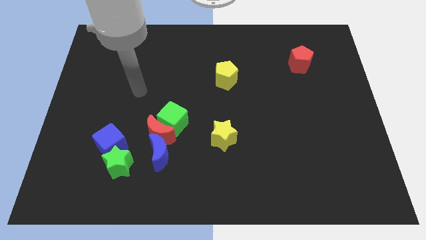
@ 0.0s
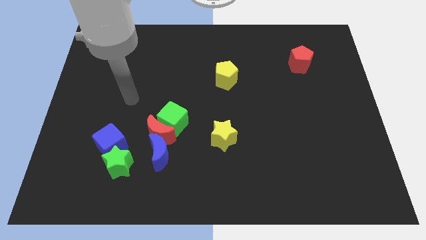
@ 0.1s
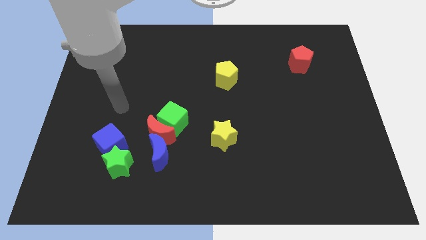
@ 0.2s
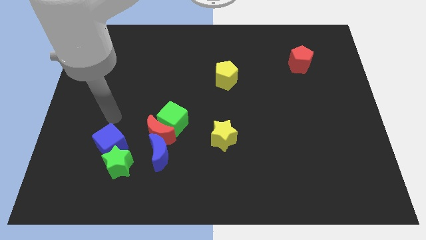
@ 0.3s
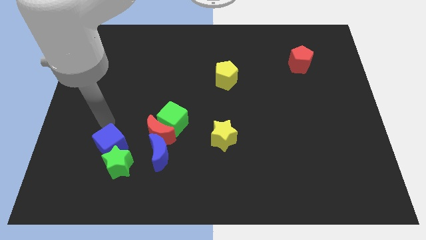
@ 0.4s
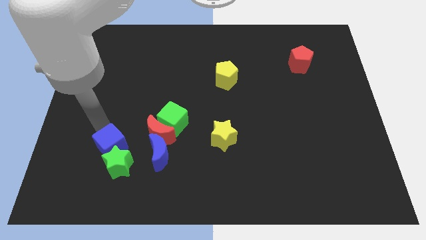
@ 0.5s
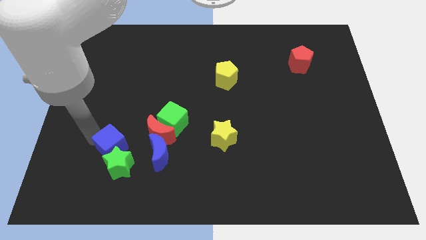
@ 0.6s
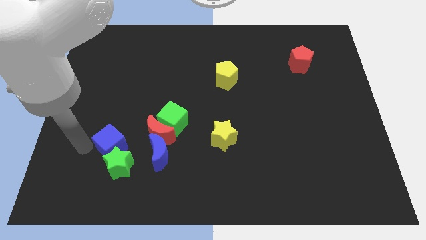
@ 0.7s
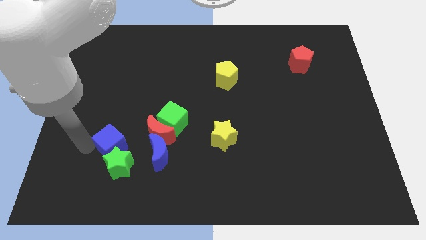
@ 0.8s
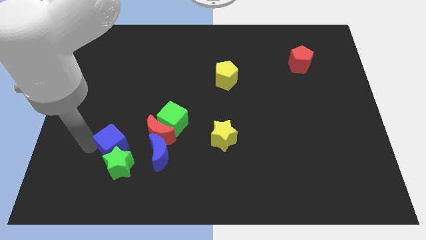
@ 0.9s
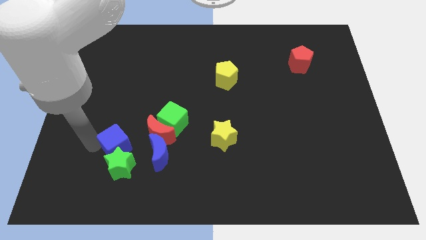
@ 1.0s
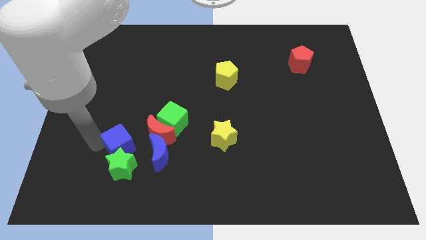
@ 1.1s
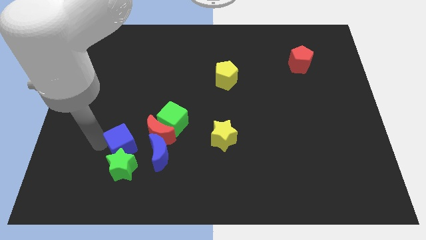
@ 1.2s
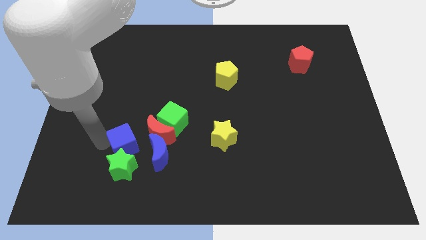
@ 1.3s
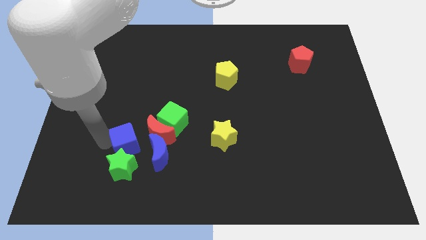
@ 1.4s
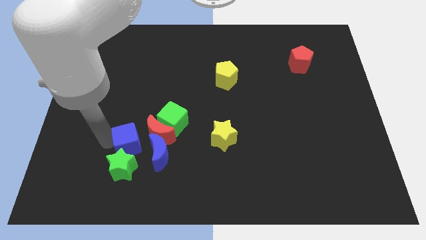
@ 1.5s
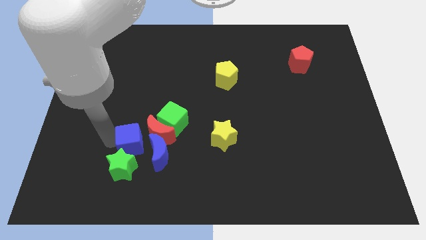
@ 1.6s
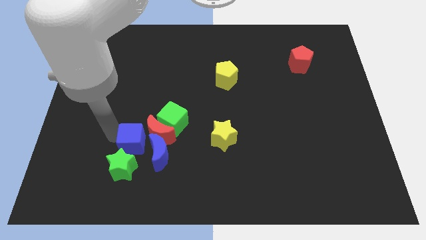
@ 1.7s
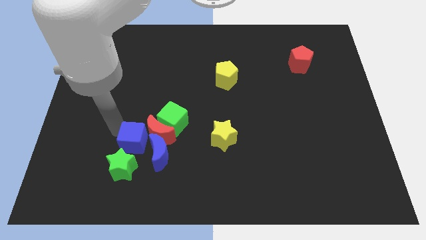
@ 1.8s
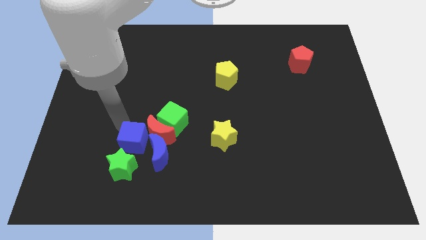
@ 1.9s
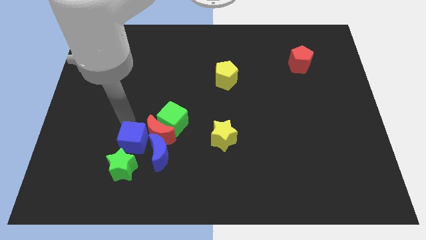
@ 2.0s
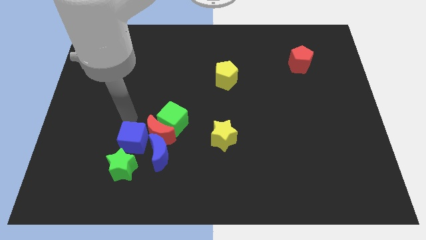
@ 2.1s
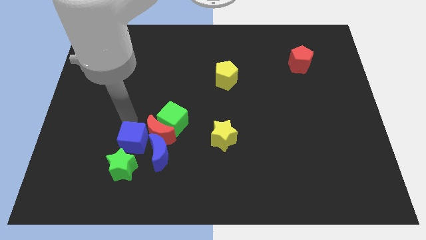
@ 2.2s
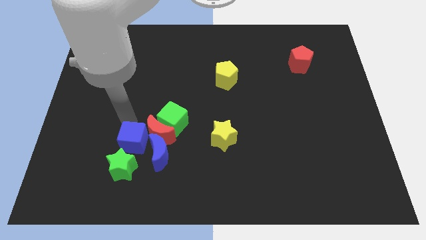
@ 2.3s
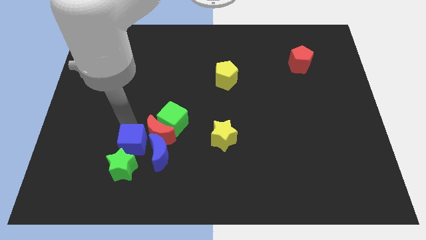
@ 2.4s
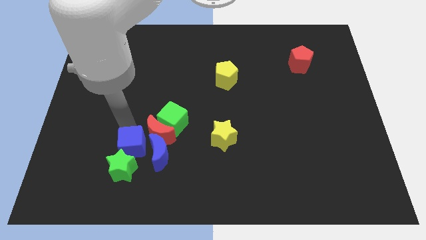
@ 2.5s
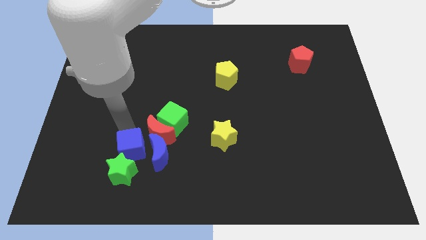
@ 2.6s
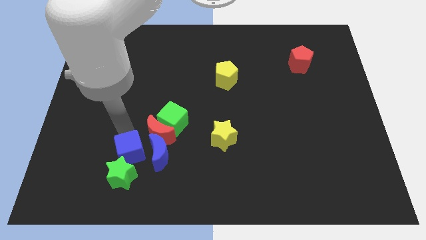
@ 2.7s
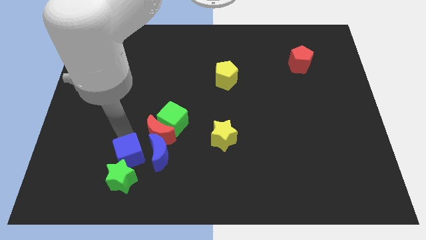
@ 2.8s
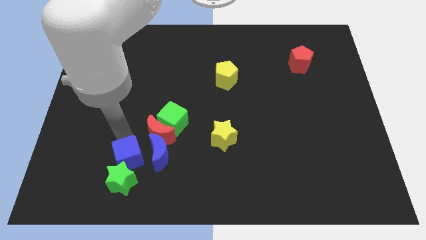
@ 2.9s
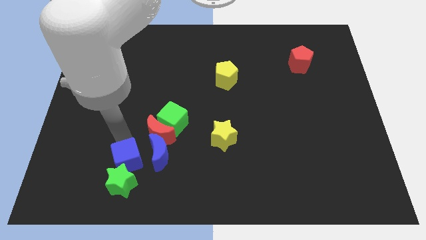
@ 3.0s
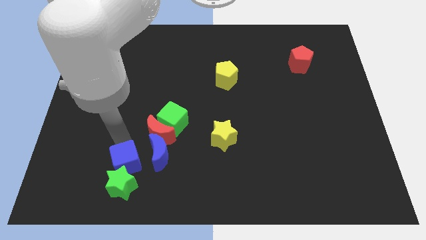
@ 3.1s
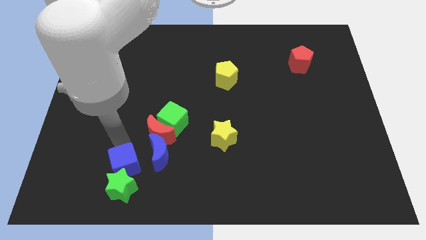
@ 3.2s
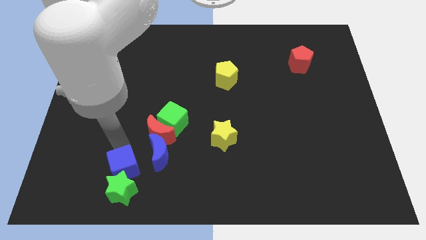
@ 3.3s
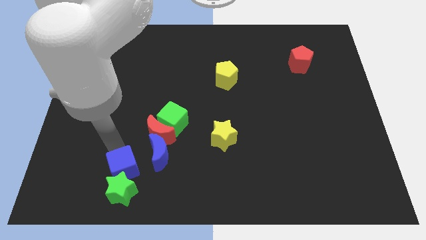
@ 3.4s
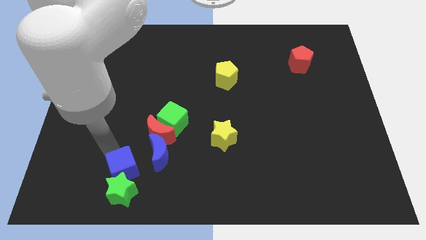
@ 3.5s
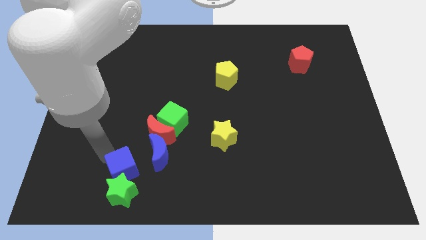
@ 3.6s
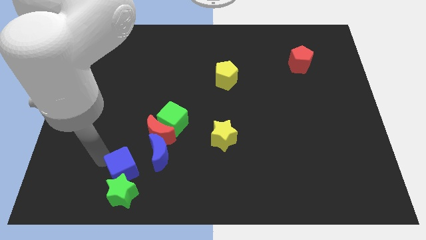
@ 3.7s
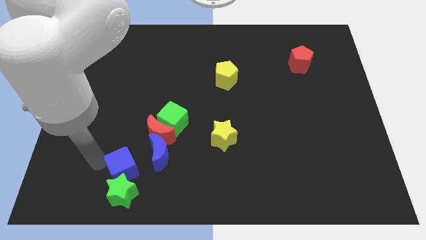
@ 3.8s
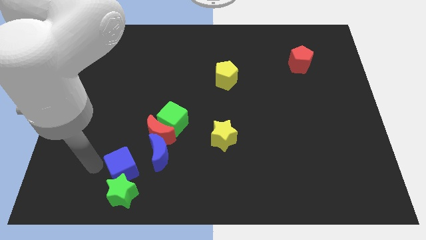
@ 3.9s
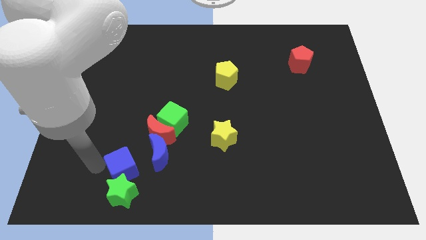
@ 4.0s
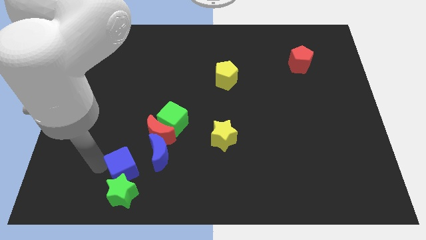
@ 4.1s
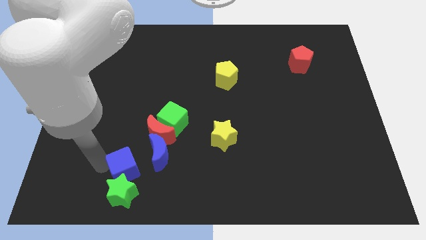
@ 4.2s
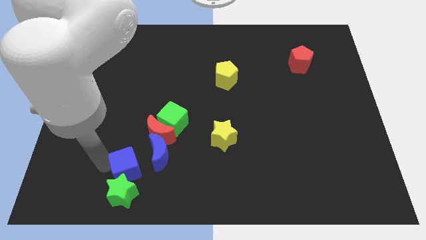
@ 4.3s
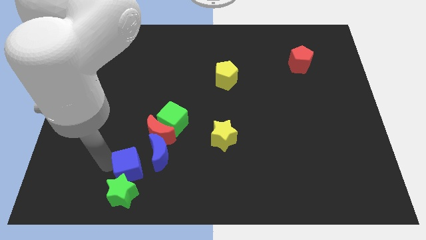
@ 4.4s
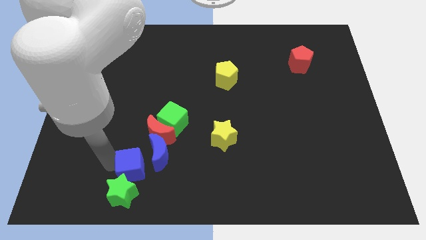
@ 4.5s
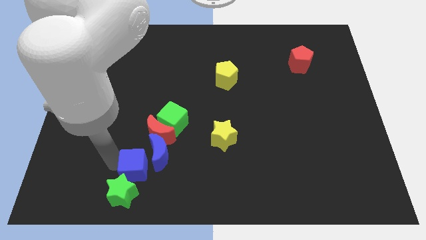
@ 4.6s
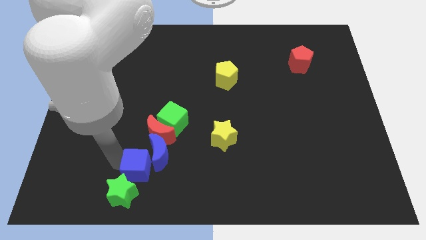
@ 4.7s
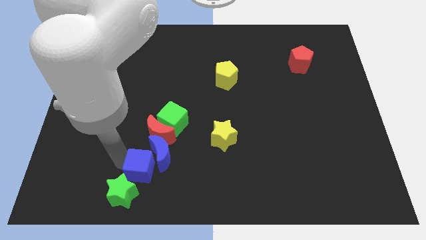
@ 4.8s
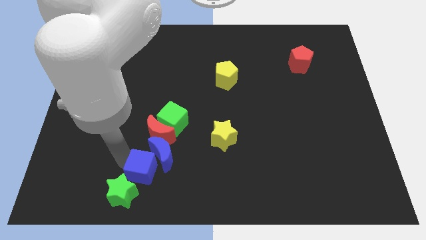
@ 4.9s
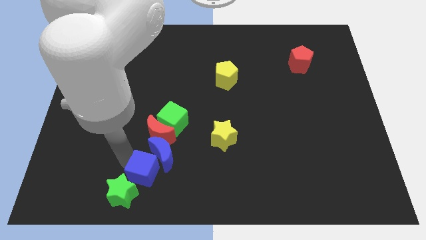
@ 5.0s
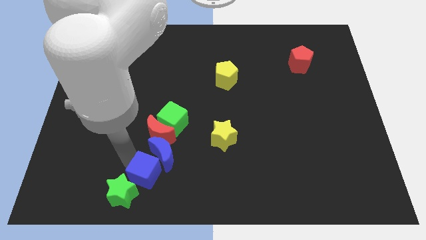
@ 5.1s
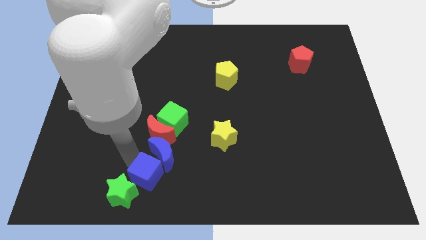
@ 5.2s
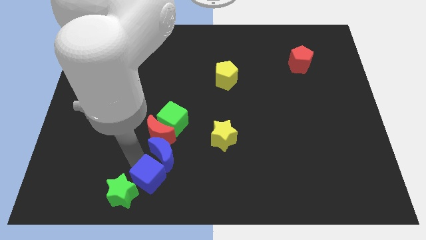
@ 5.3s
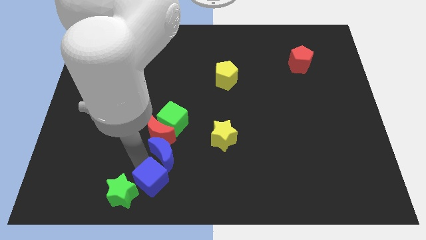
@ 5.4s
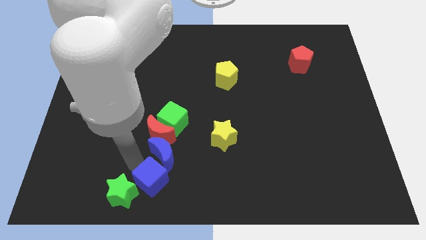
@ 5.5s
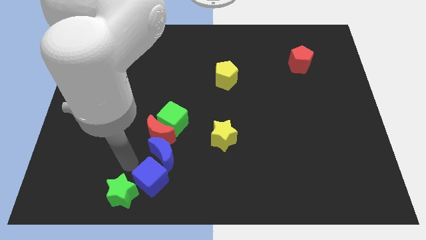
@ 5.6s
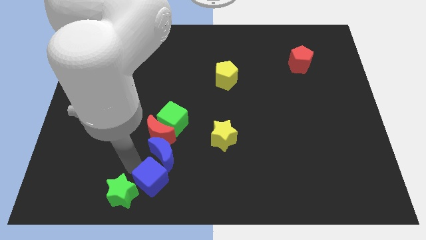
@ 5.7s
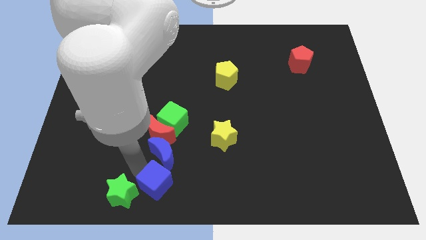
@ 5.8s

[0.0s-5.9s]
push the blue cube to the bottom

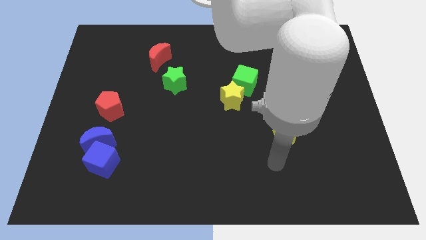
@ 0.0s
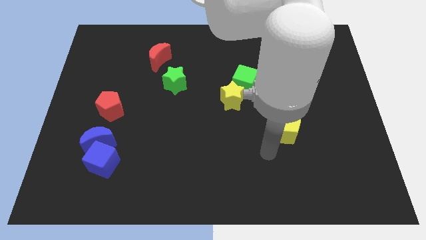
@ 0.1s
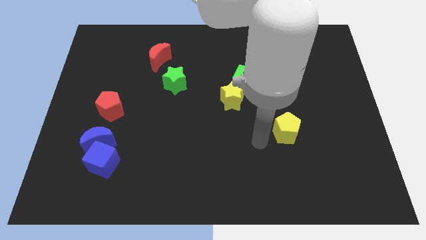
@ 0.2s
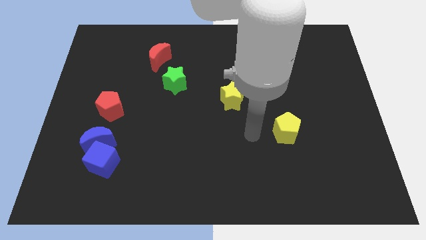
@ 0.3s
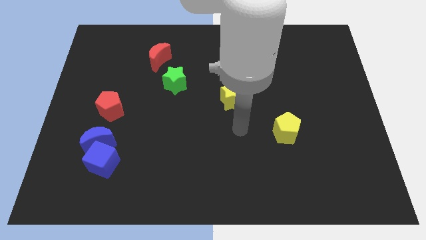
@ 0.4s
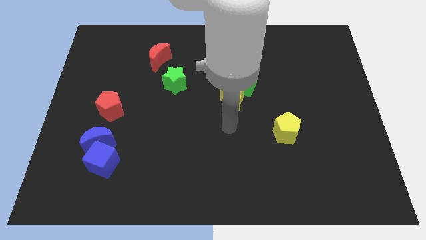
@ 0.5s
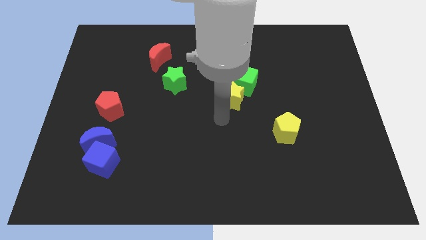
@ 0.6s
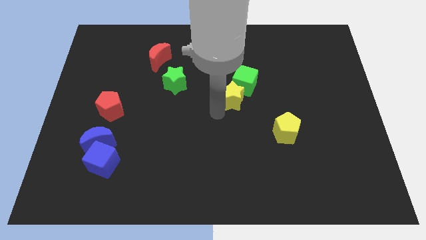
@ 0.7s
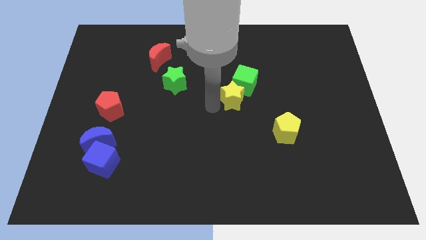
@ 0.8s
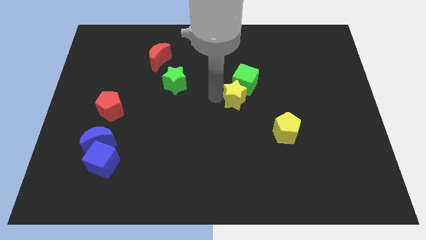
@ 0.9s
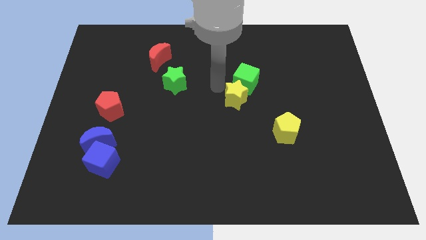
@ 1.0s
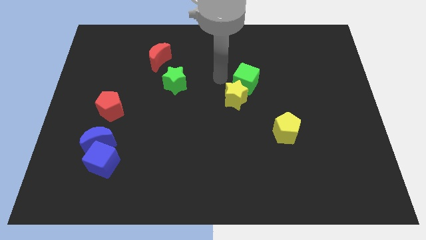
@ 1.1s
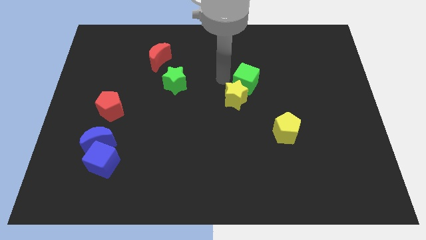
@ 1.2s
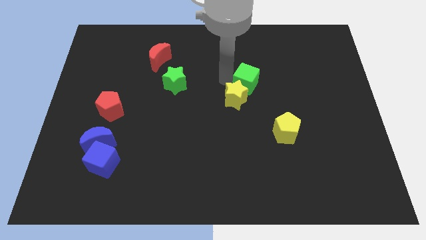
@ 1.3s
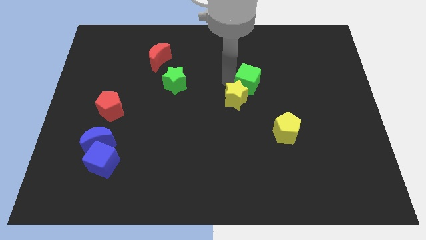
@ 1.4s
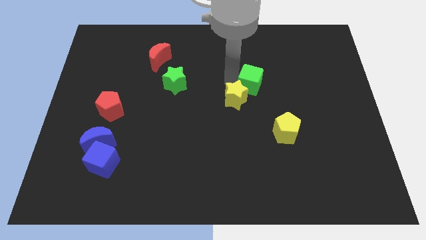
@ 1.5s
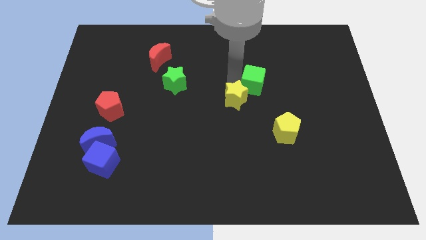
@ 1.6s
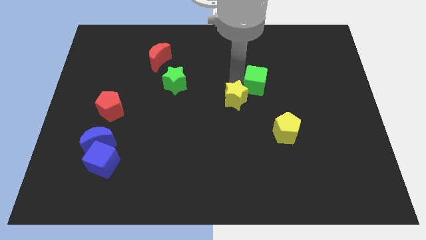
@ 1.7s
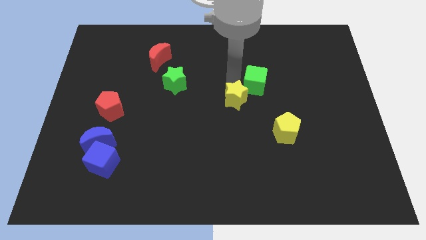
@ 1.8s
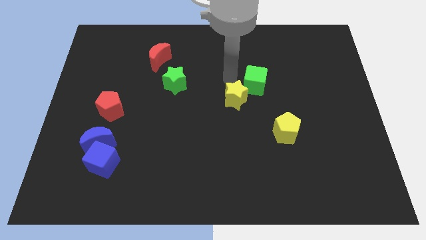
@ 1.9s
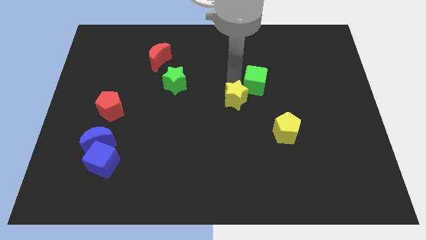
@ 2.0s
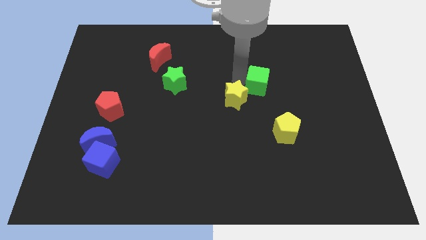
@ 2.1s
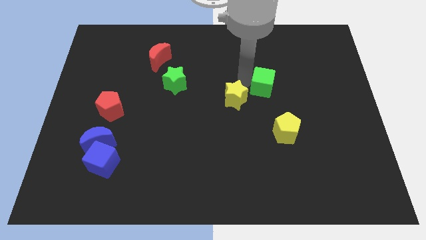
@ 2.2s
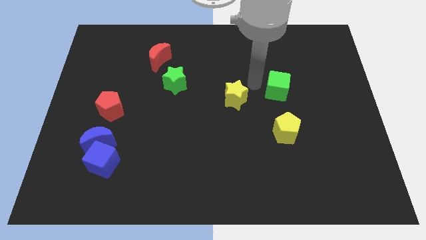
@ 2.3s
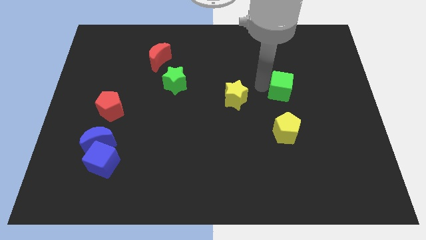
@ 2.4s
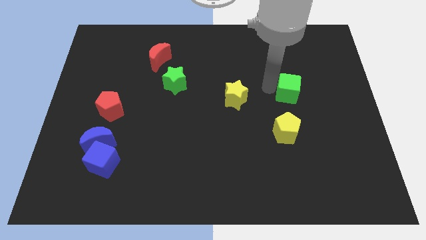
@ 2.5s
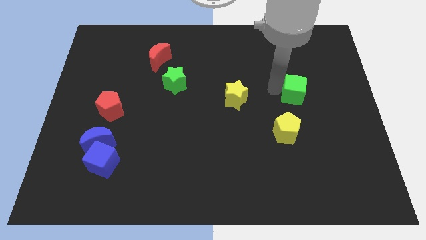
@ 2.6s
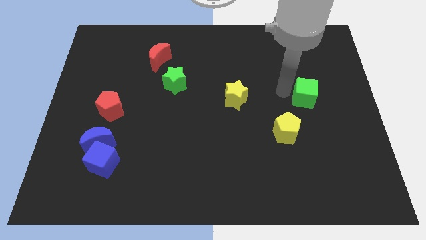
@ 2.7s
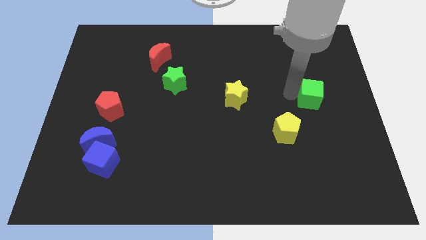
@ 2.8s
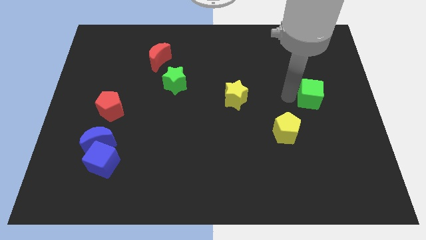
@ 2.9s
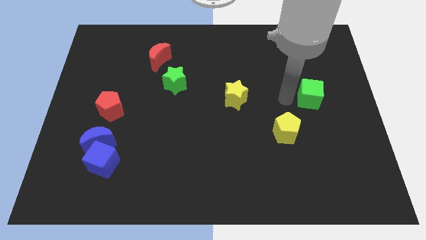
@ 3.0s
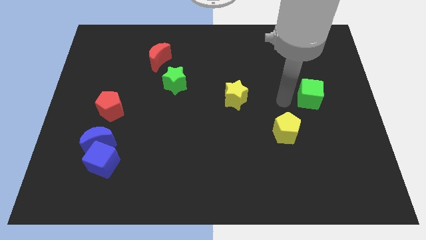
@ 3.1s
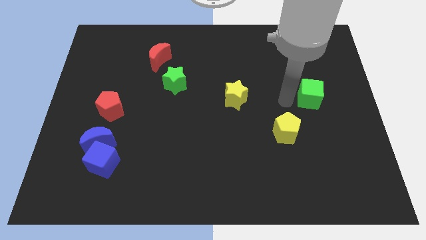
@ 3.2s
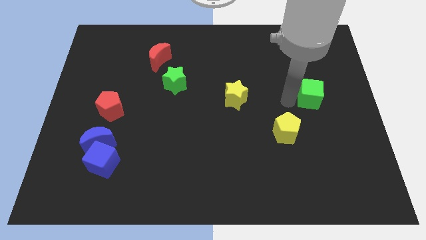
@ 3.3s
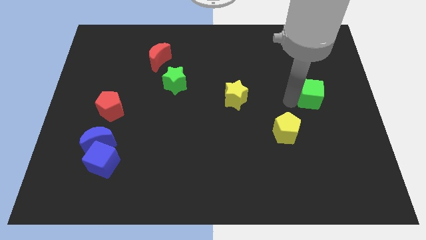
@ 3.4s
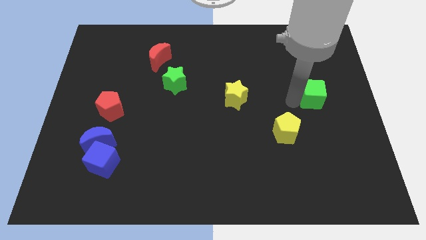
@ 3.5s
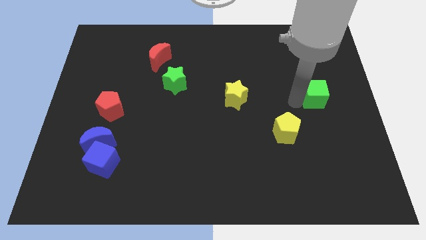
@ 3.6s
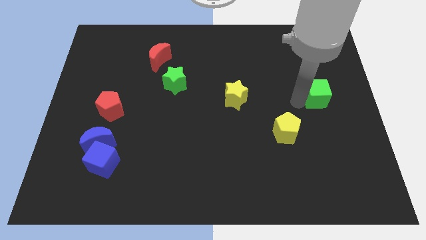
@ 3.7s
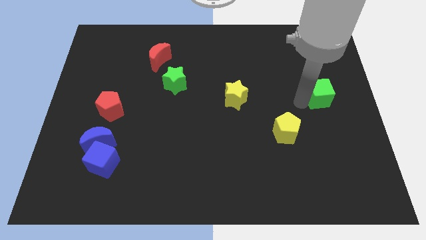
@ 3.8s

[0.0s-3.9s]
move the green cube to the right side of the board
